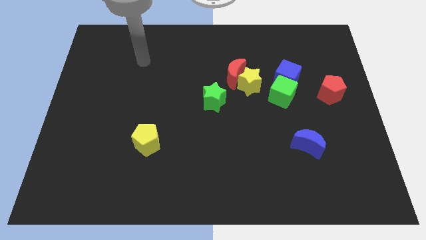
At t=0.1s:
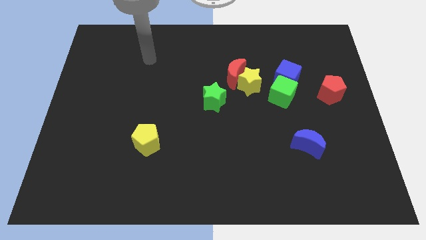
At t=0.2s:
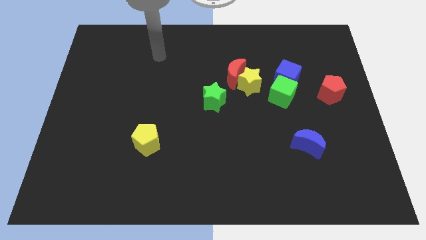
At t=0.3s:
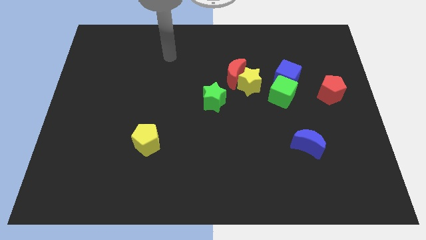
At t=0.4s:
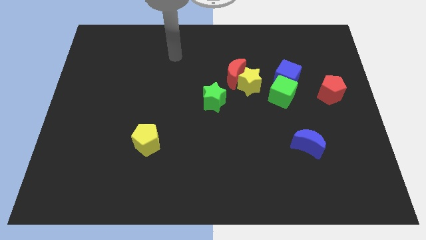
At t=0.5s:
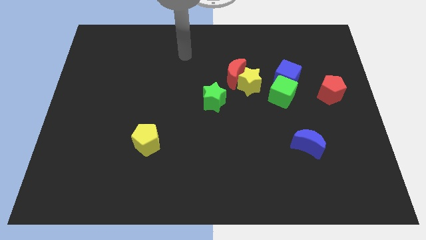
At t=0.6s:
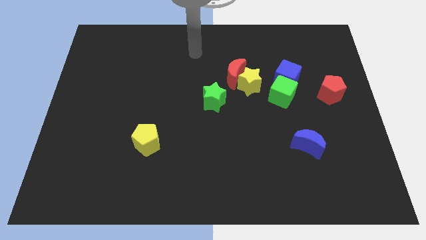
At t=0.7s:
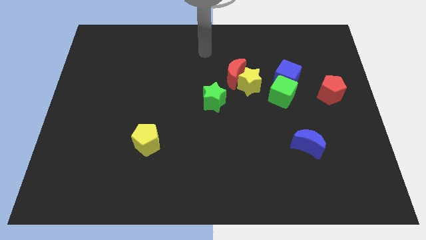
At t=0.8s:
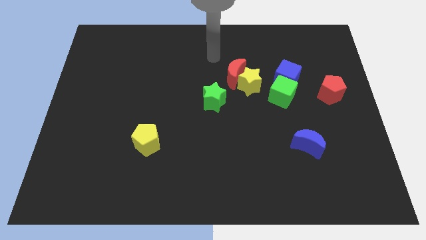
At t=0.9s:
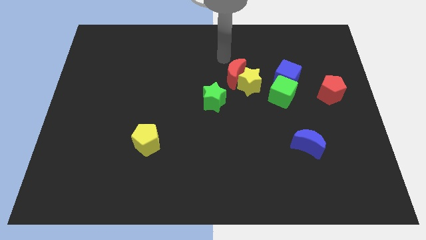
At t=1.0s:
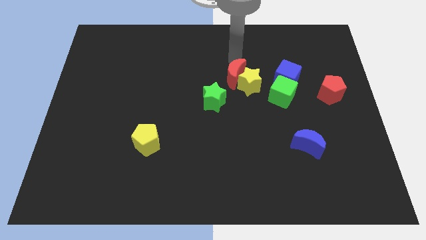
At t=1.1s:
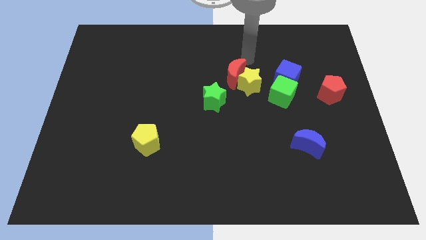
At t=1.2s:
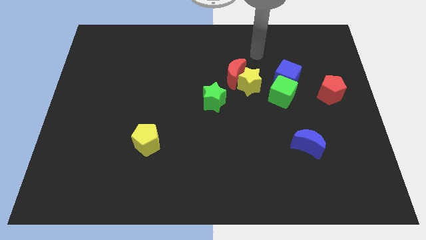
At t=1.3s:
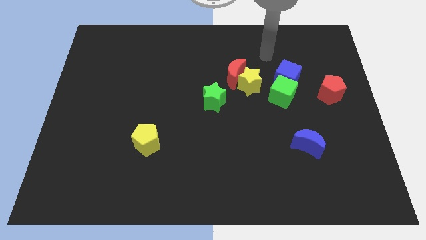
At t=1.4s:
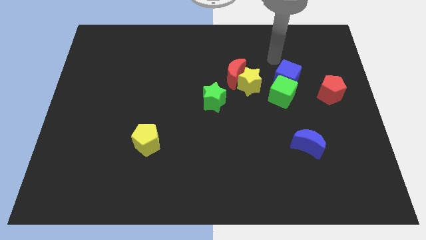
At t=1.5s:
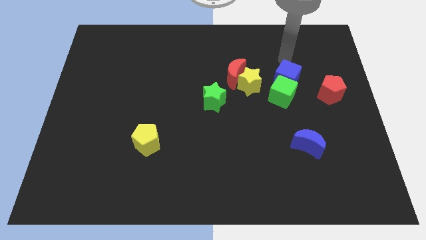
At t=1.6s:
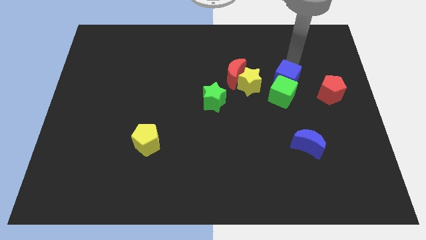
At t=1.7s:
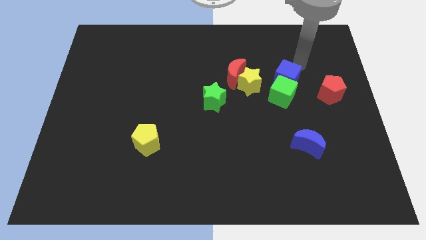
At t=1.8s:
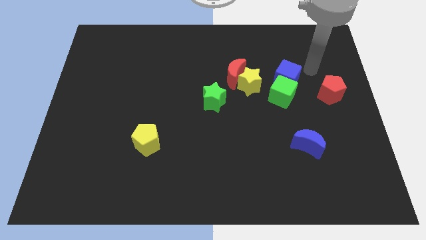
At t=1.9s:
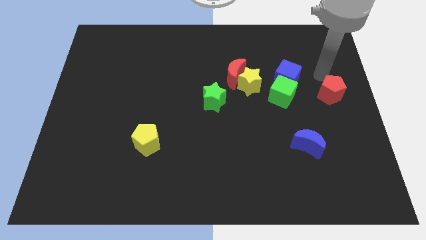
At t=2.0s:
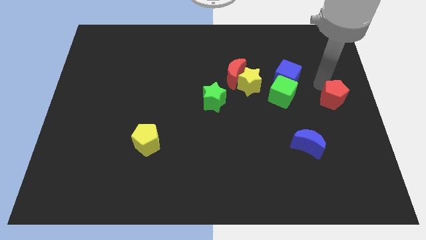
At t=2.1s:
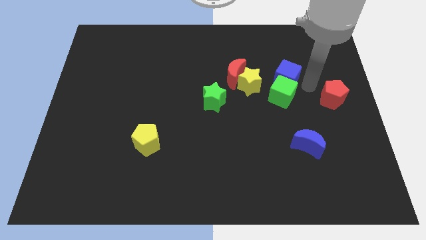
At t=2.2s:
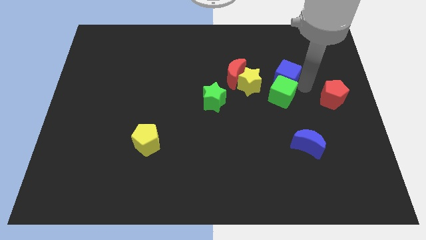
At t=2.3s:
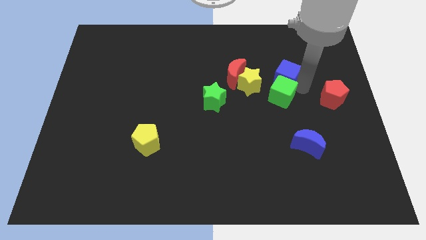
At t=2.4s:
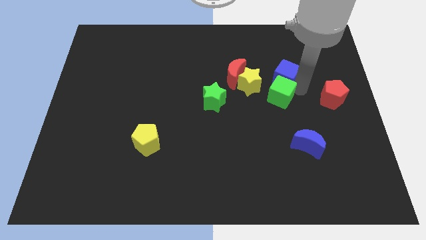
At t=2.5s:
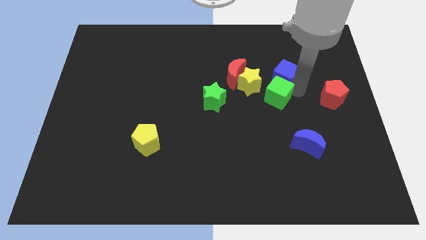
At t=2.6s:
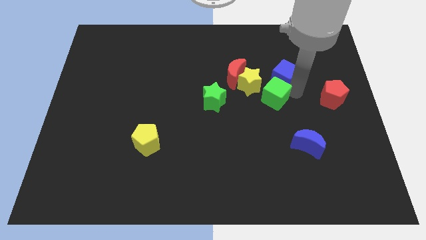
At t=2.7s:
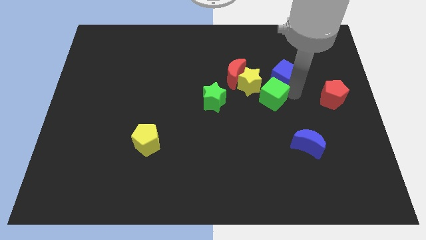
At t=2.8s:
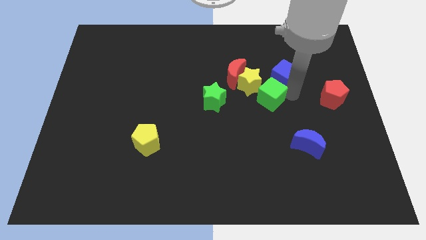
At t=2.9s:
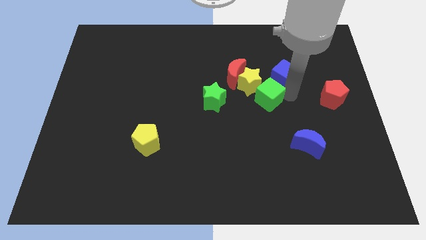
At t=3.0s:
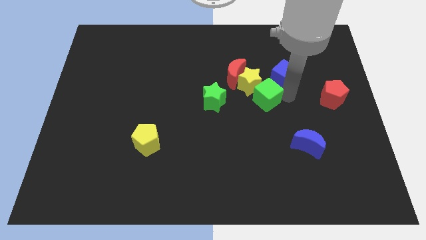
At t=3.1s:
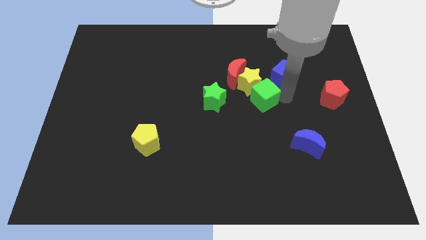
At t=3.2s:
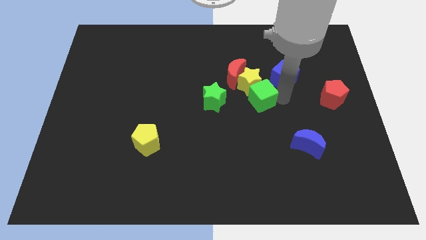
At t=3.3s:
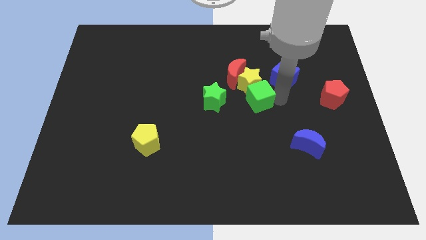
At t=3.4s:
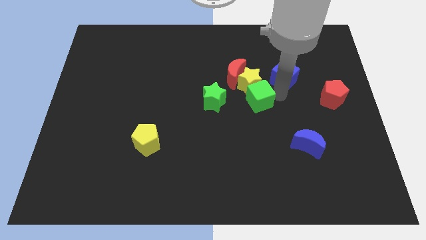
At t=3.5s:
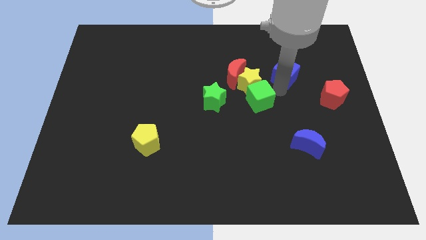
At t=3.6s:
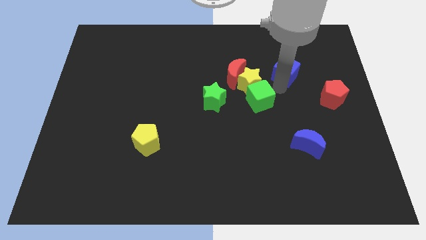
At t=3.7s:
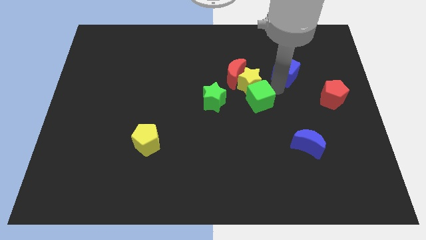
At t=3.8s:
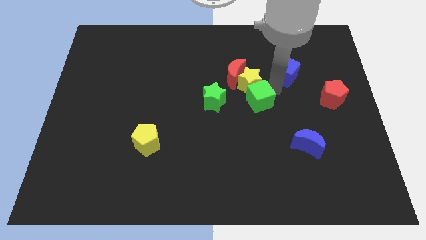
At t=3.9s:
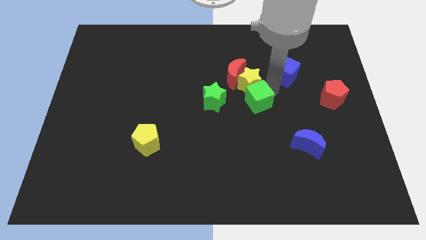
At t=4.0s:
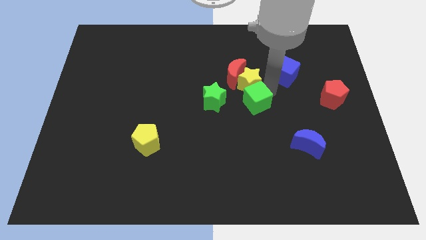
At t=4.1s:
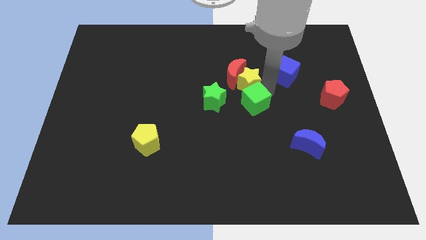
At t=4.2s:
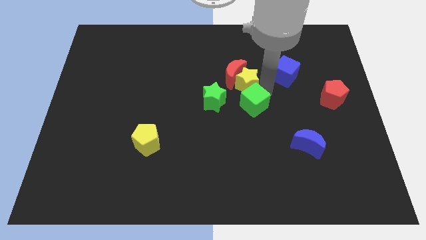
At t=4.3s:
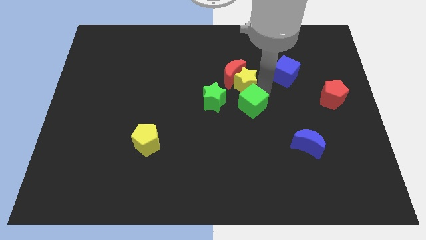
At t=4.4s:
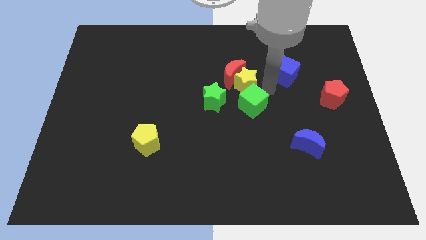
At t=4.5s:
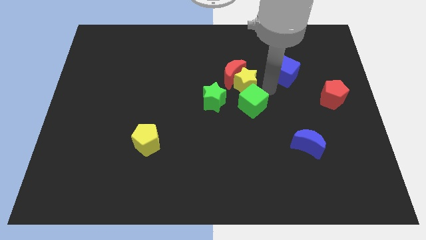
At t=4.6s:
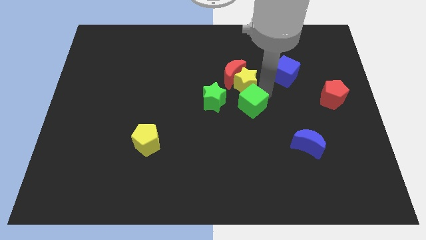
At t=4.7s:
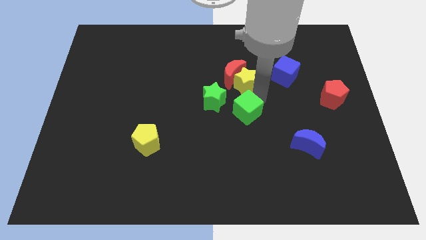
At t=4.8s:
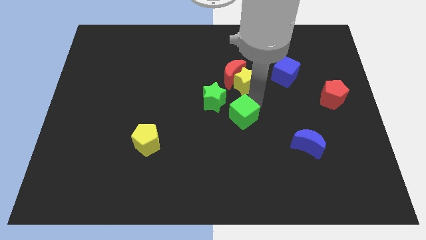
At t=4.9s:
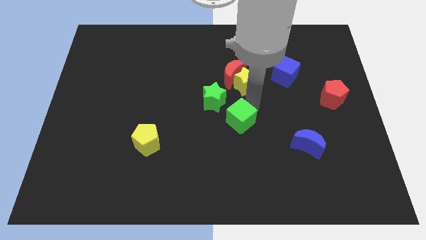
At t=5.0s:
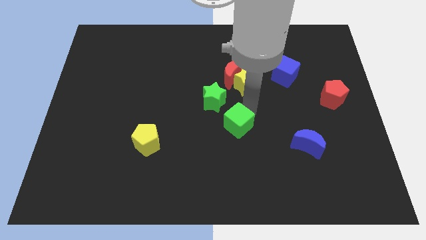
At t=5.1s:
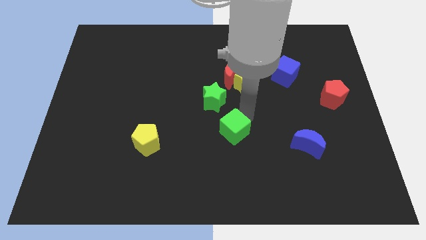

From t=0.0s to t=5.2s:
put the green cube below the green star

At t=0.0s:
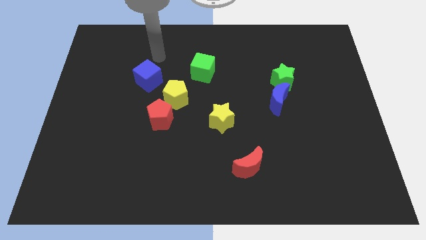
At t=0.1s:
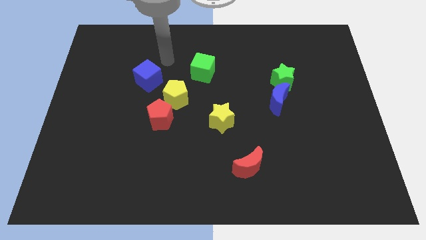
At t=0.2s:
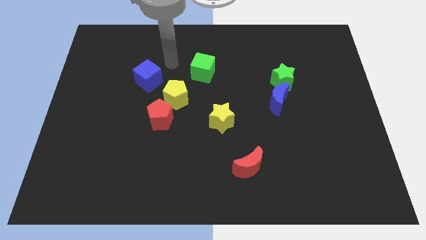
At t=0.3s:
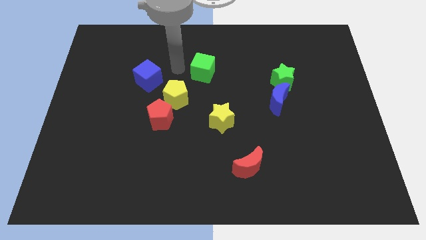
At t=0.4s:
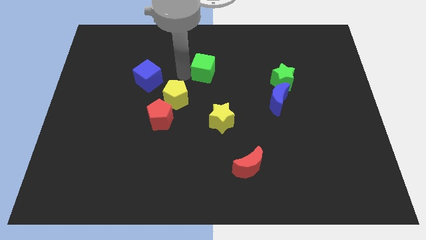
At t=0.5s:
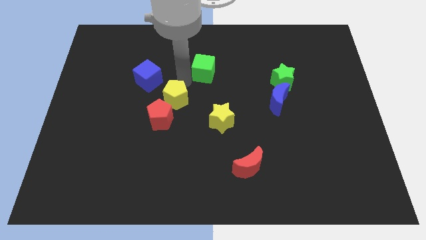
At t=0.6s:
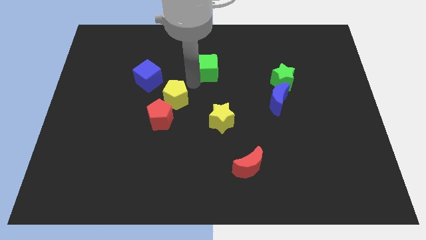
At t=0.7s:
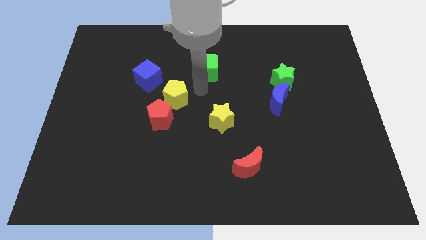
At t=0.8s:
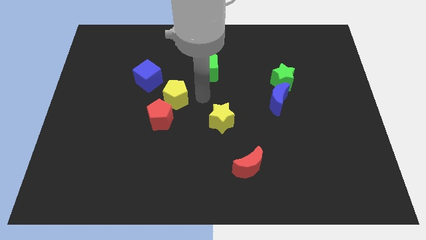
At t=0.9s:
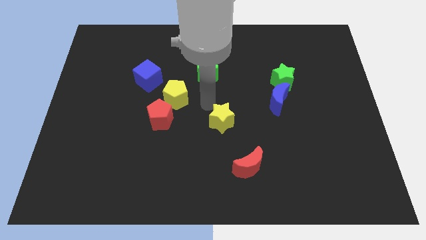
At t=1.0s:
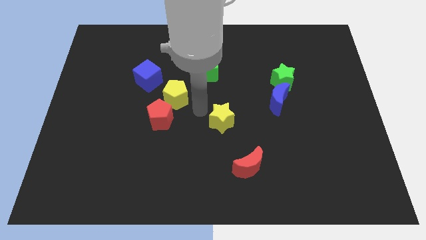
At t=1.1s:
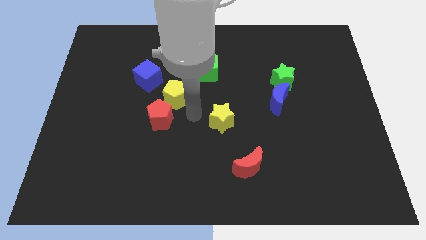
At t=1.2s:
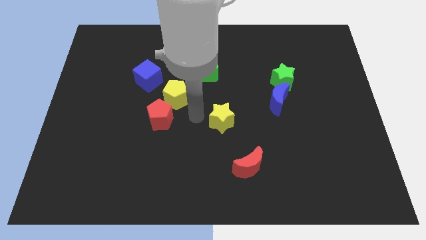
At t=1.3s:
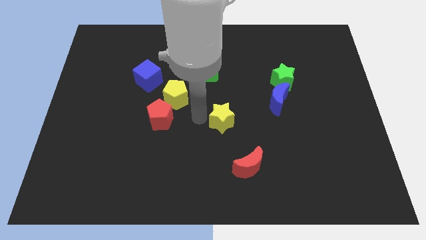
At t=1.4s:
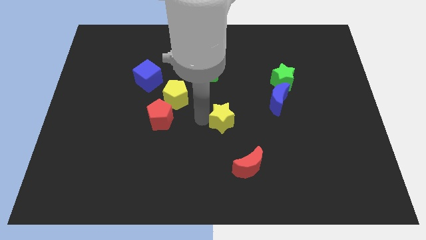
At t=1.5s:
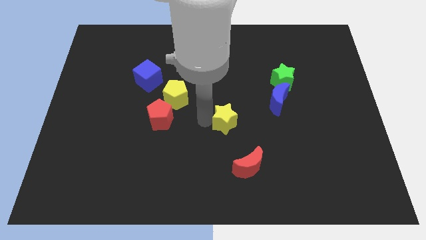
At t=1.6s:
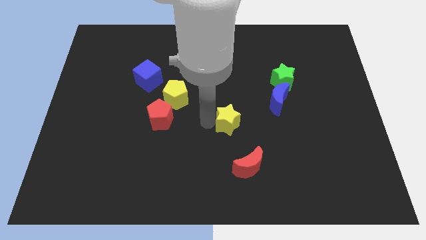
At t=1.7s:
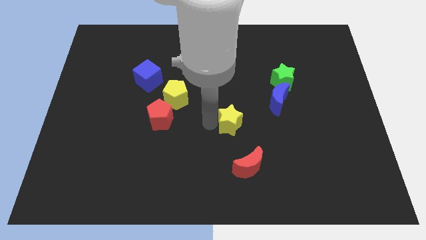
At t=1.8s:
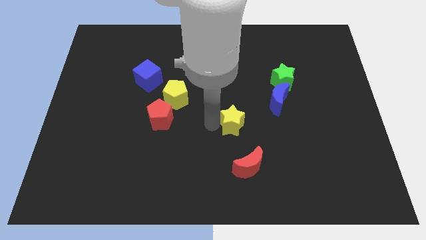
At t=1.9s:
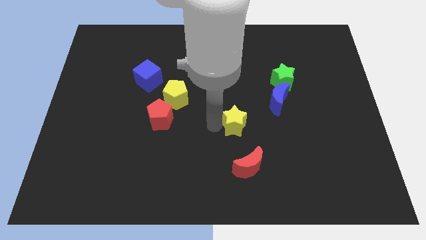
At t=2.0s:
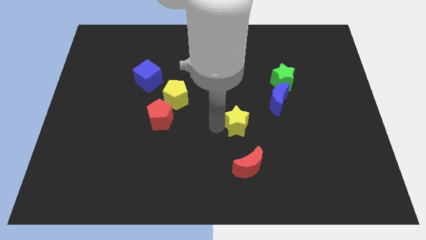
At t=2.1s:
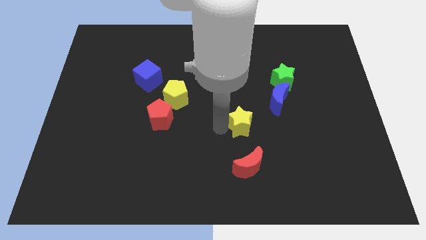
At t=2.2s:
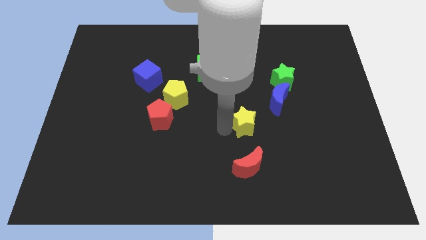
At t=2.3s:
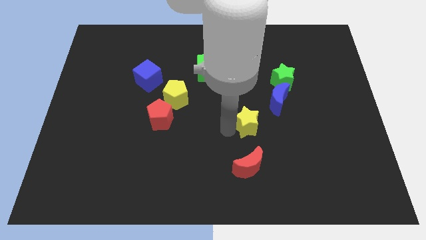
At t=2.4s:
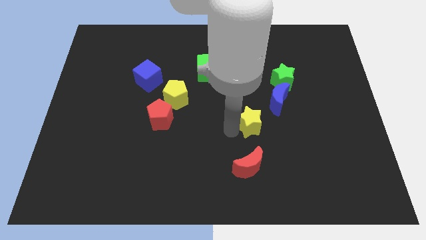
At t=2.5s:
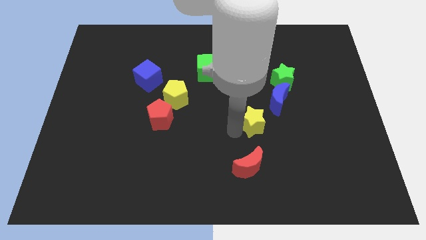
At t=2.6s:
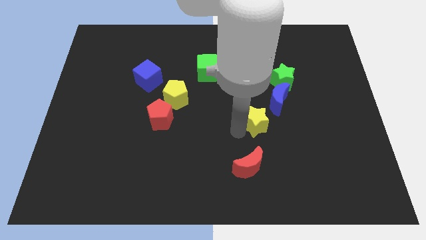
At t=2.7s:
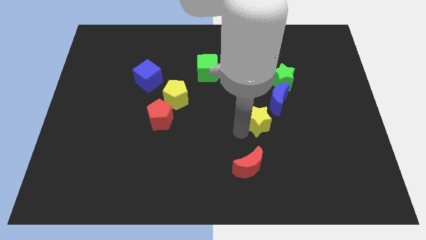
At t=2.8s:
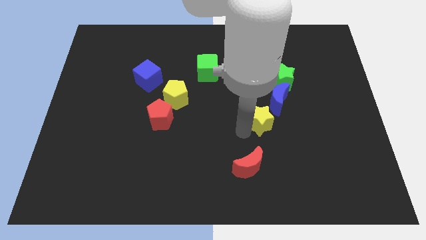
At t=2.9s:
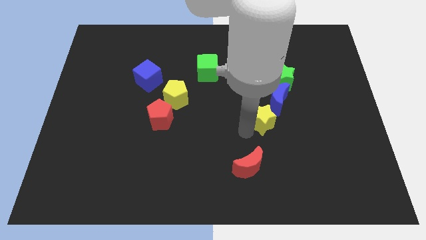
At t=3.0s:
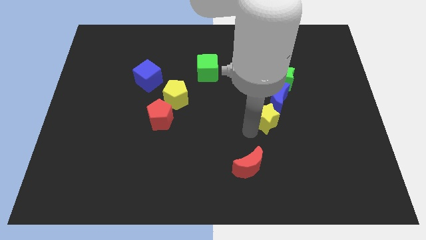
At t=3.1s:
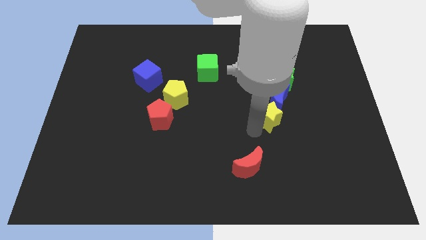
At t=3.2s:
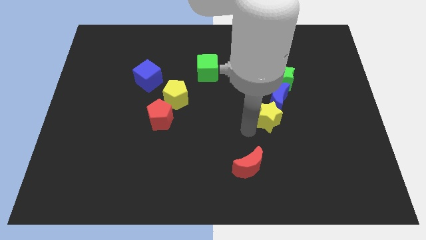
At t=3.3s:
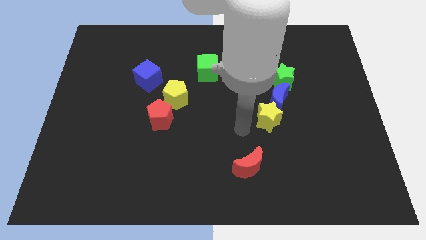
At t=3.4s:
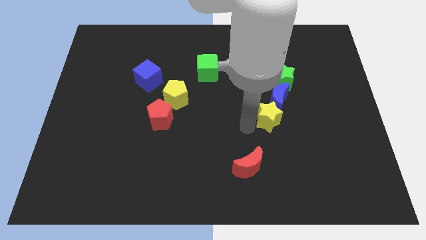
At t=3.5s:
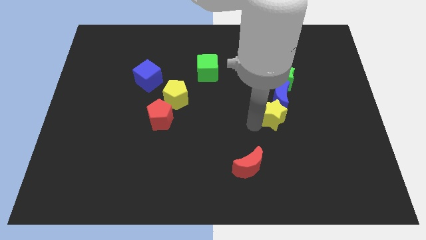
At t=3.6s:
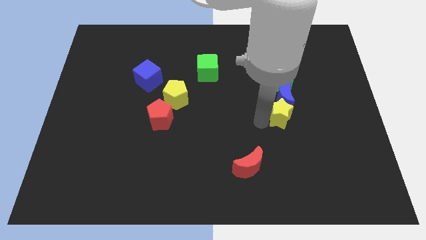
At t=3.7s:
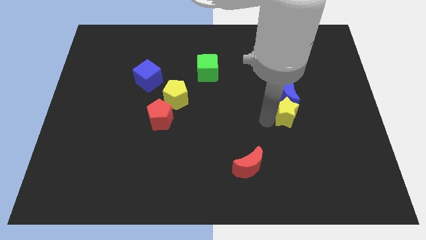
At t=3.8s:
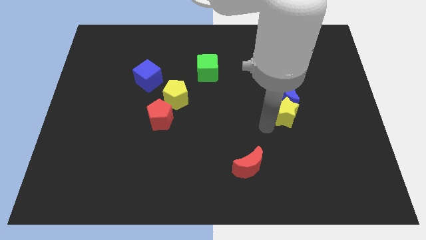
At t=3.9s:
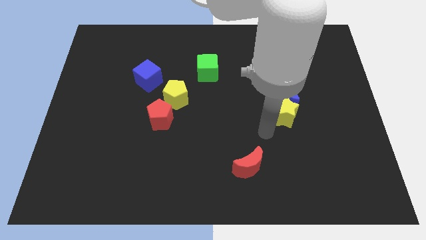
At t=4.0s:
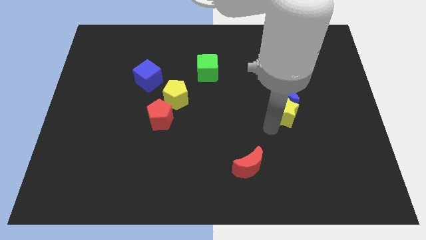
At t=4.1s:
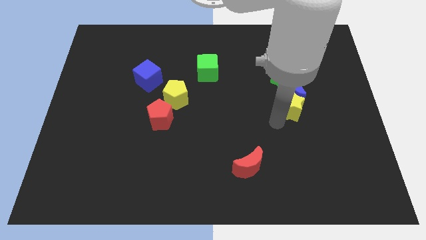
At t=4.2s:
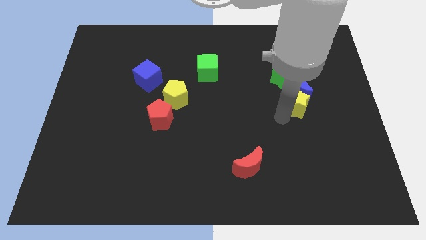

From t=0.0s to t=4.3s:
slide the yellow star to the bottom right of the green star
